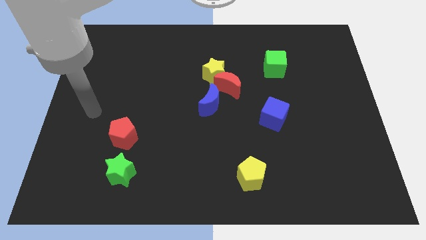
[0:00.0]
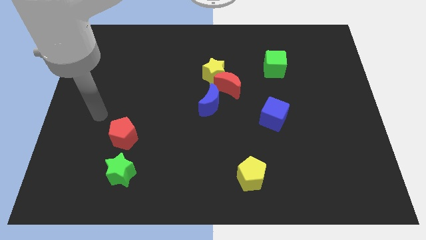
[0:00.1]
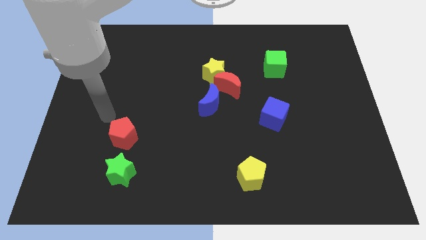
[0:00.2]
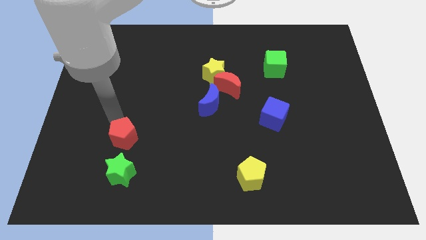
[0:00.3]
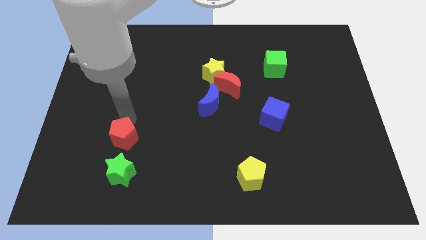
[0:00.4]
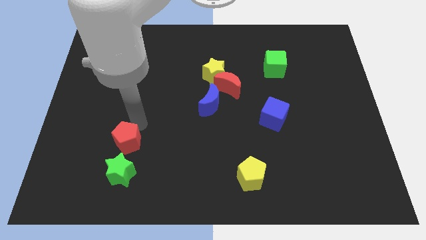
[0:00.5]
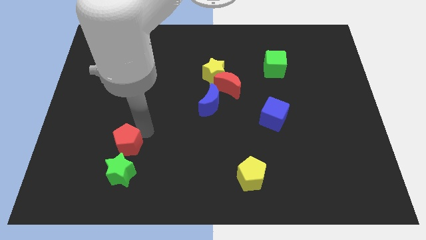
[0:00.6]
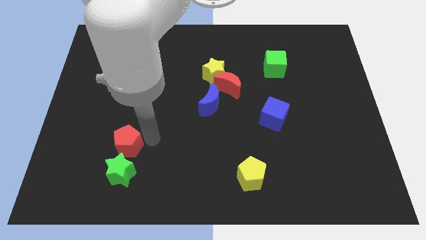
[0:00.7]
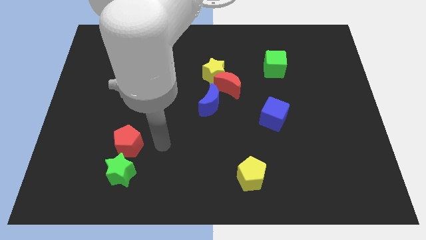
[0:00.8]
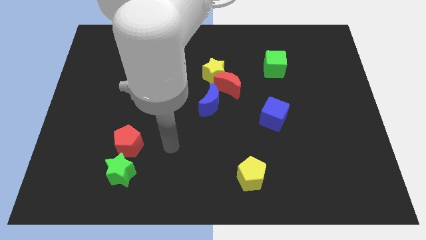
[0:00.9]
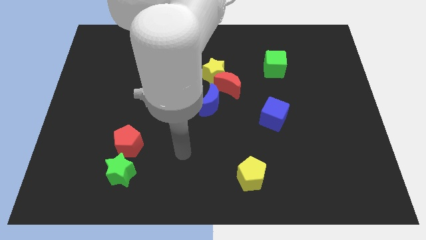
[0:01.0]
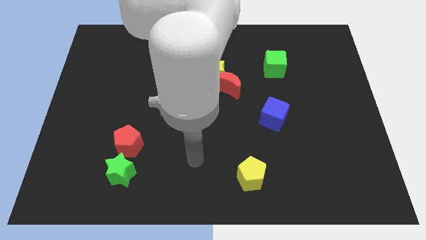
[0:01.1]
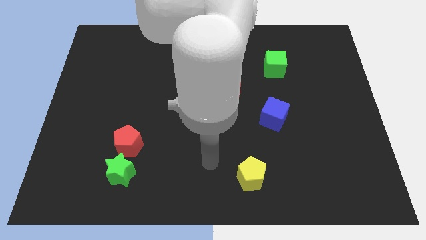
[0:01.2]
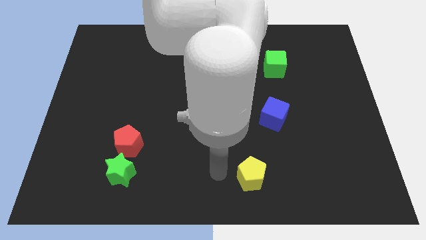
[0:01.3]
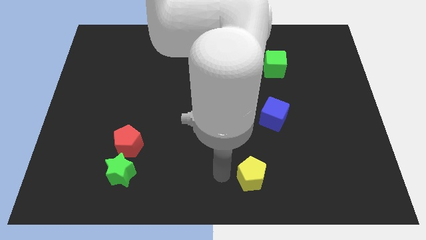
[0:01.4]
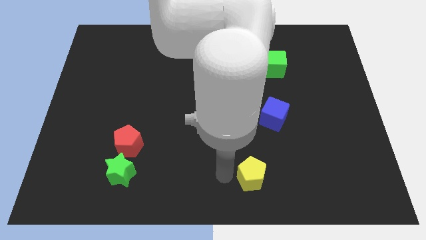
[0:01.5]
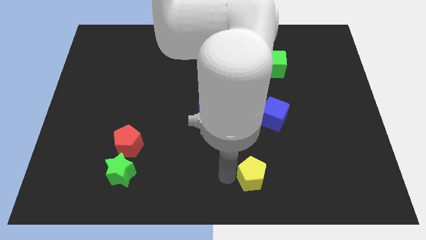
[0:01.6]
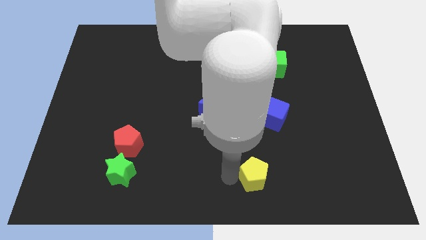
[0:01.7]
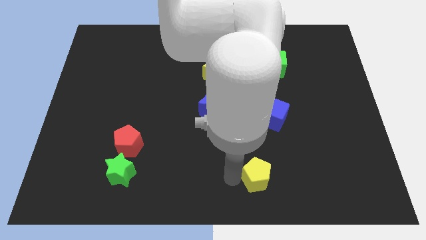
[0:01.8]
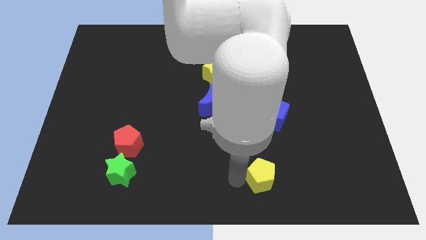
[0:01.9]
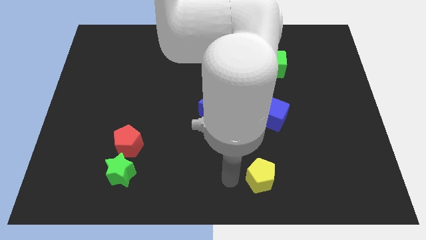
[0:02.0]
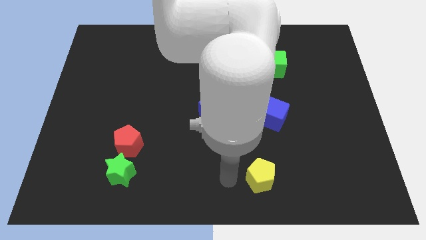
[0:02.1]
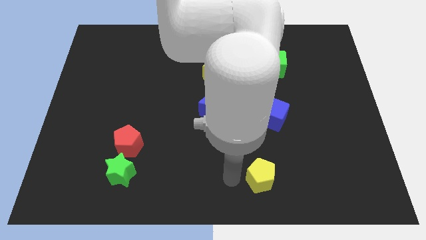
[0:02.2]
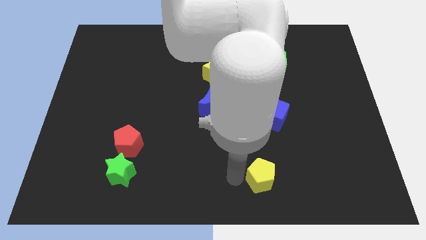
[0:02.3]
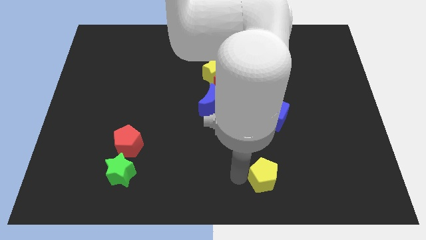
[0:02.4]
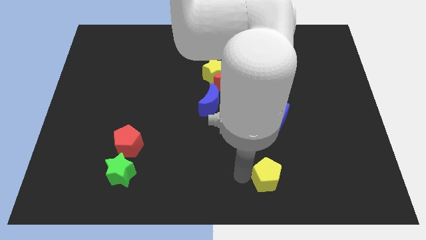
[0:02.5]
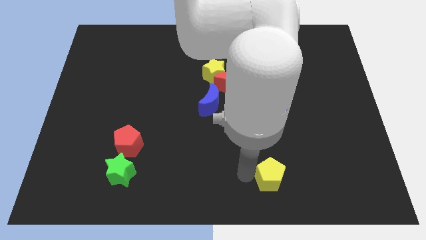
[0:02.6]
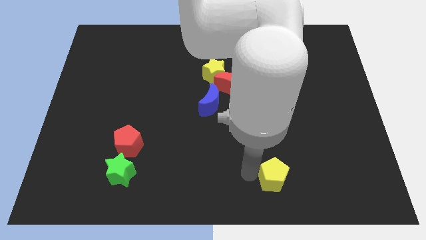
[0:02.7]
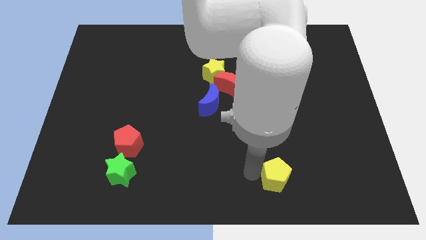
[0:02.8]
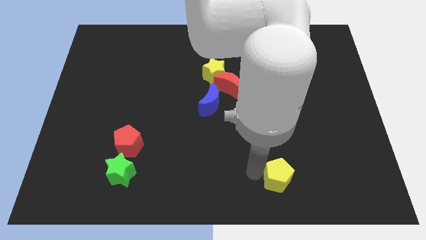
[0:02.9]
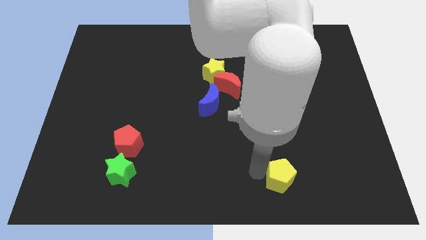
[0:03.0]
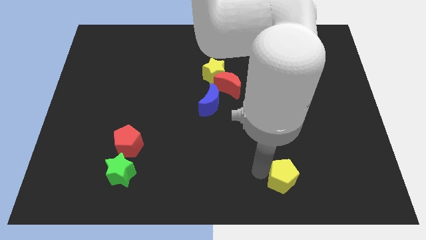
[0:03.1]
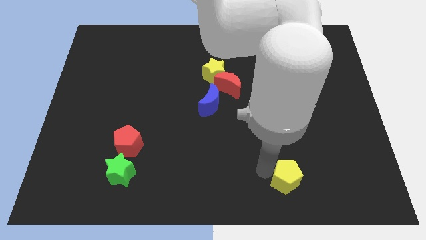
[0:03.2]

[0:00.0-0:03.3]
move the yellow pentagon to the right a little

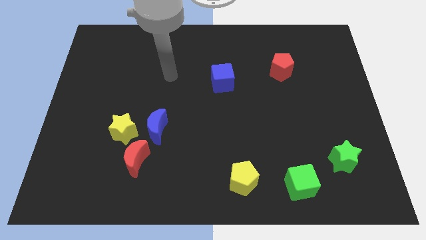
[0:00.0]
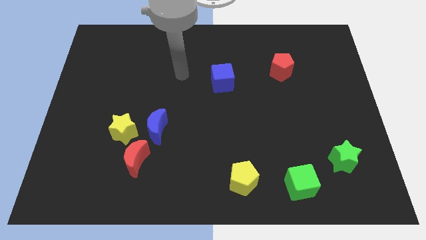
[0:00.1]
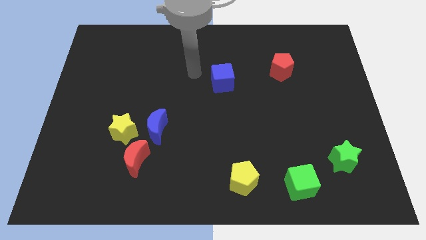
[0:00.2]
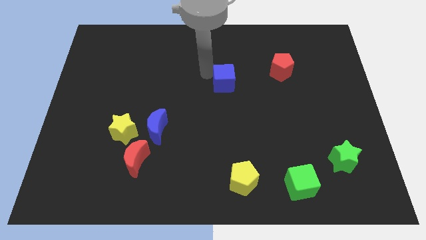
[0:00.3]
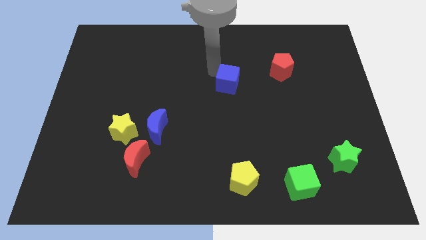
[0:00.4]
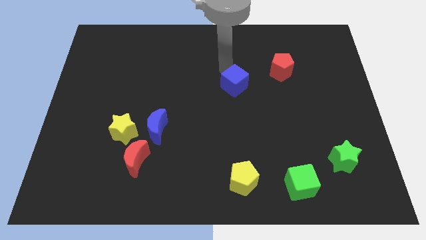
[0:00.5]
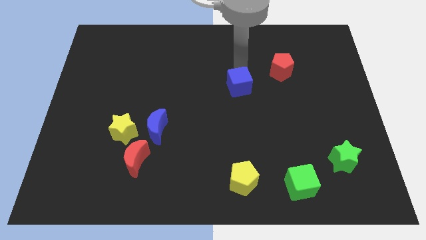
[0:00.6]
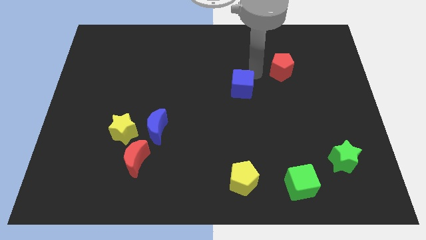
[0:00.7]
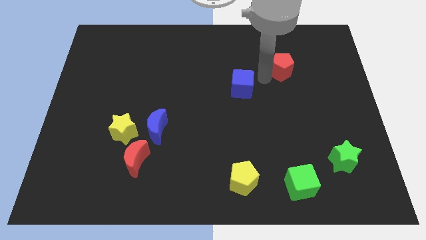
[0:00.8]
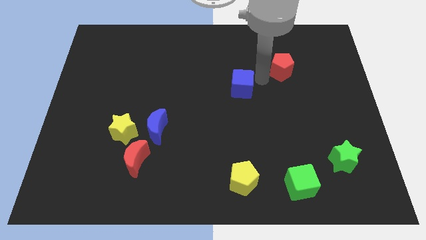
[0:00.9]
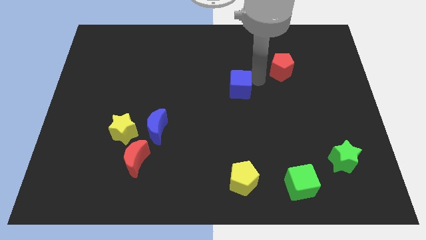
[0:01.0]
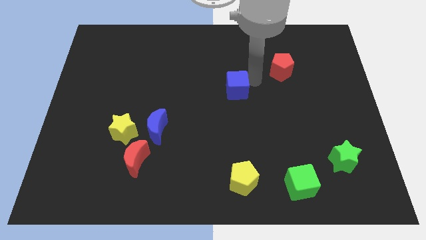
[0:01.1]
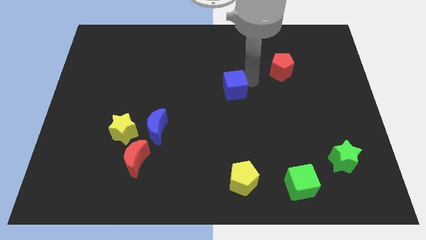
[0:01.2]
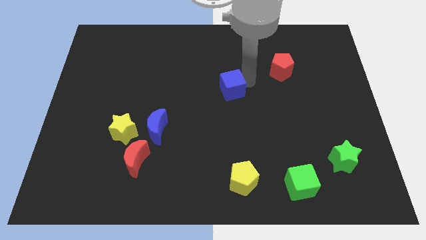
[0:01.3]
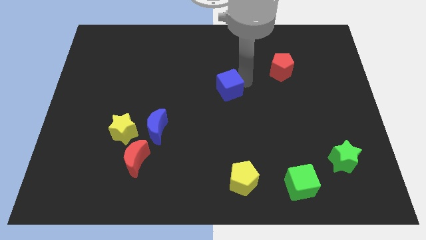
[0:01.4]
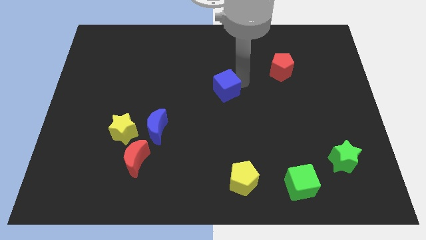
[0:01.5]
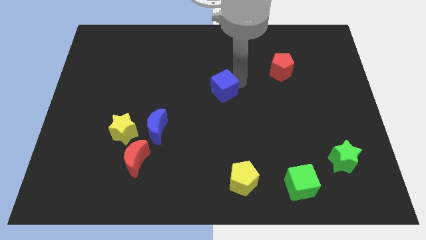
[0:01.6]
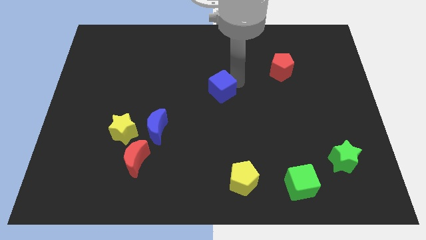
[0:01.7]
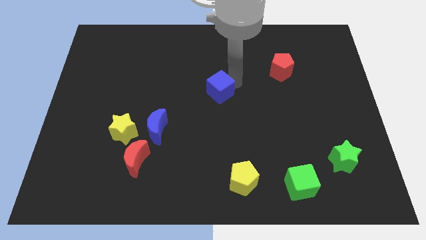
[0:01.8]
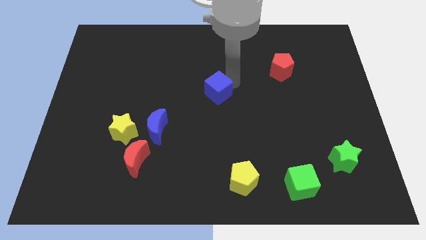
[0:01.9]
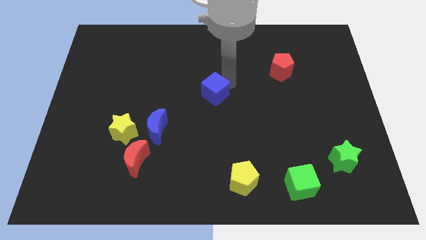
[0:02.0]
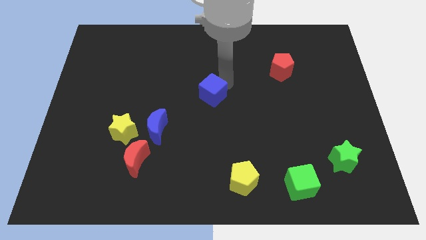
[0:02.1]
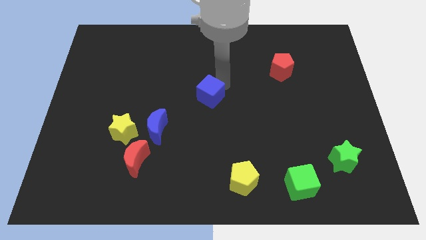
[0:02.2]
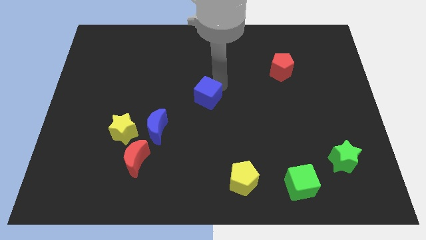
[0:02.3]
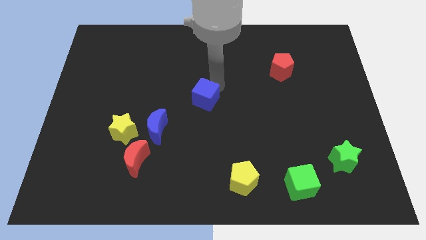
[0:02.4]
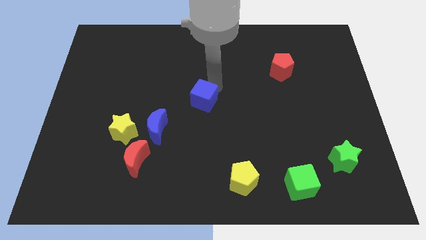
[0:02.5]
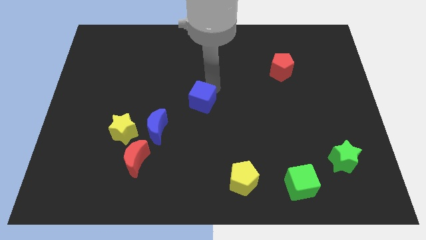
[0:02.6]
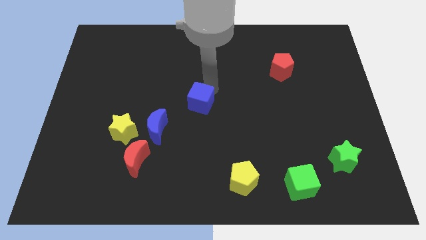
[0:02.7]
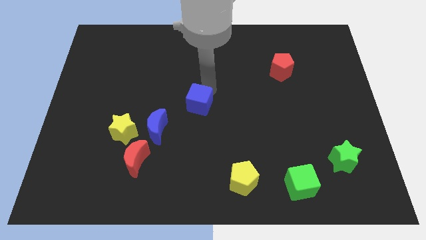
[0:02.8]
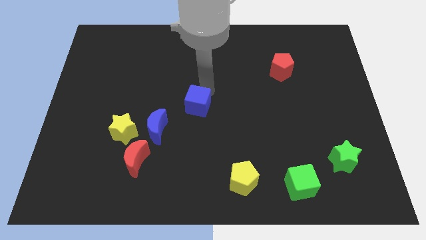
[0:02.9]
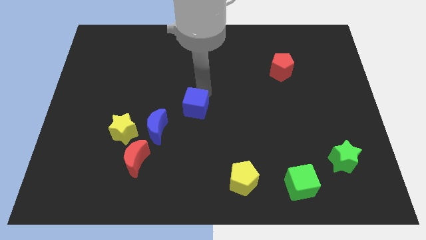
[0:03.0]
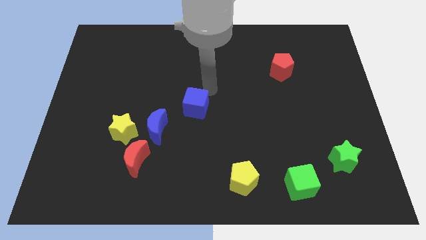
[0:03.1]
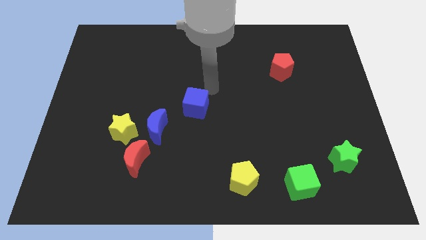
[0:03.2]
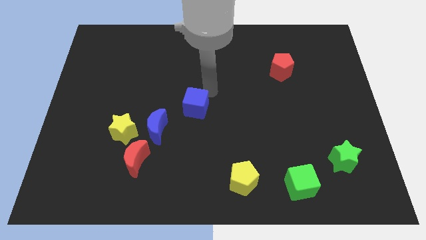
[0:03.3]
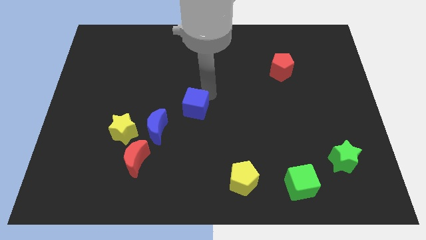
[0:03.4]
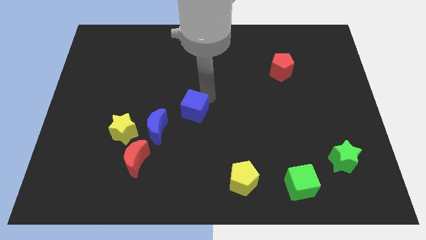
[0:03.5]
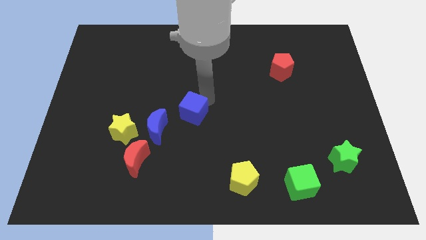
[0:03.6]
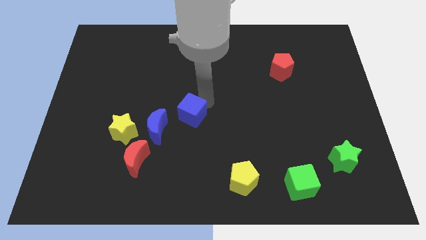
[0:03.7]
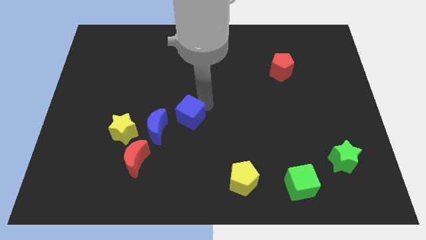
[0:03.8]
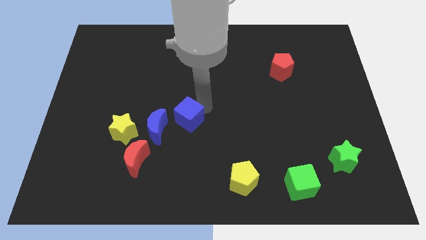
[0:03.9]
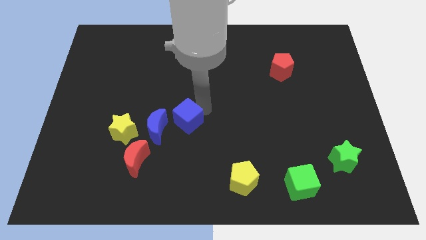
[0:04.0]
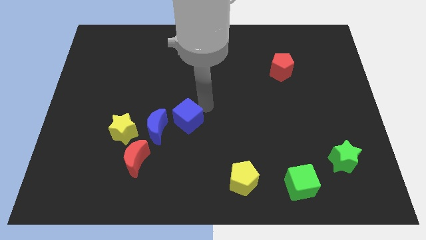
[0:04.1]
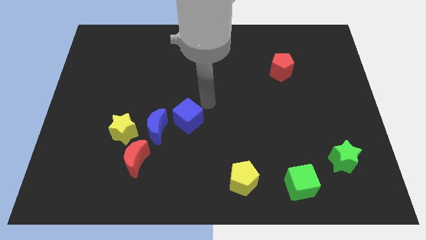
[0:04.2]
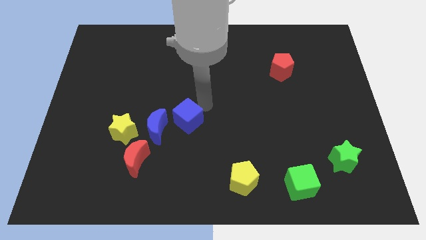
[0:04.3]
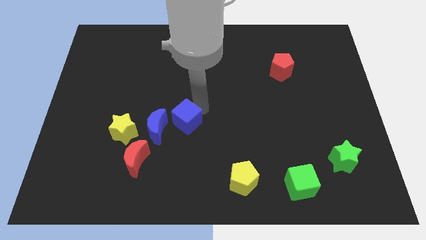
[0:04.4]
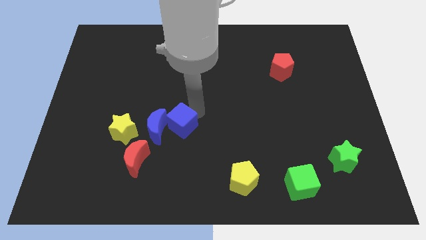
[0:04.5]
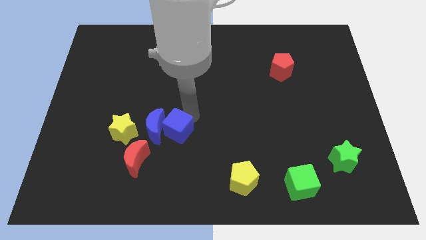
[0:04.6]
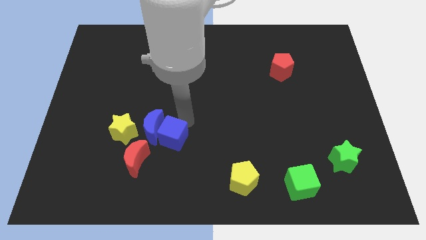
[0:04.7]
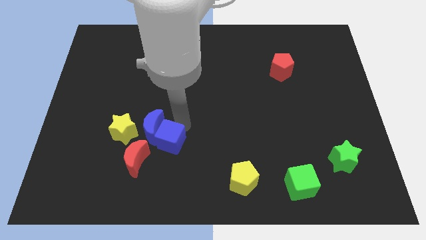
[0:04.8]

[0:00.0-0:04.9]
slide the blue cube down and left diagonally
